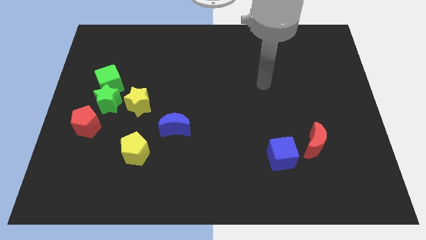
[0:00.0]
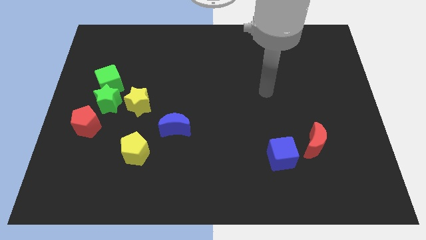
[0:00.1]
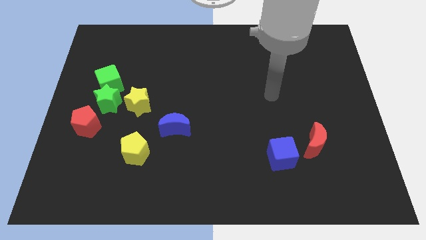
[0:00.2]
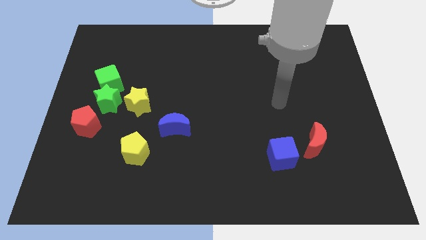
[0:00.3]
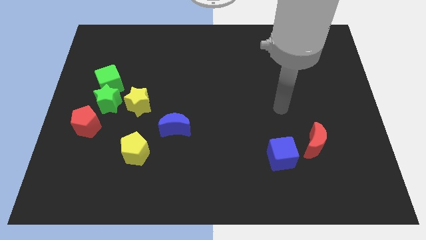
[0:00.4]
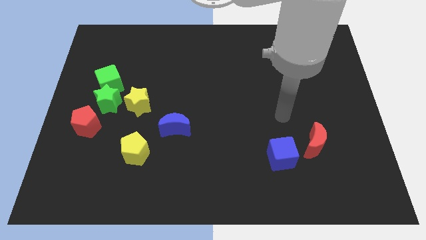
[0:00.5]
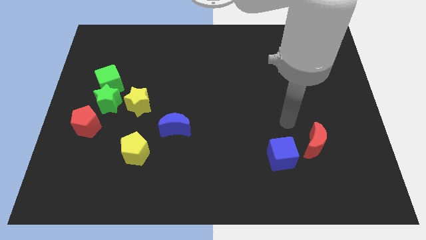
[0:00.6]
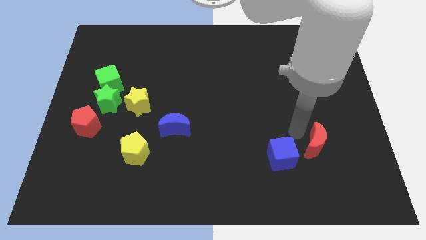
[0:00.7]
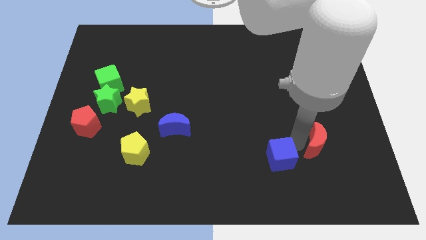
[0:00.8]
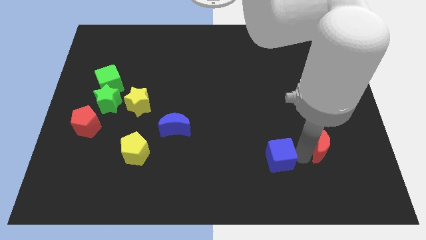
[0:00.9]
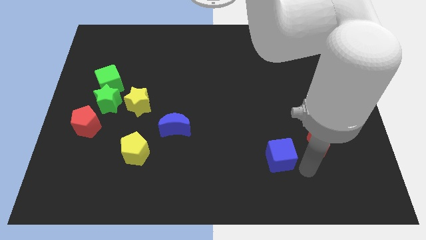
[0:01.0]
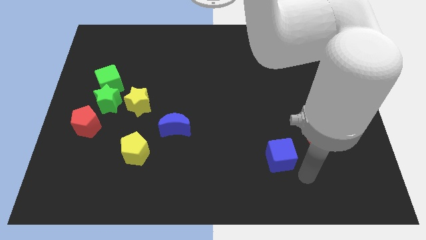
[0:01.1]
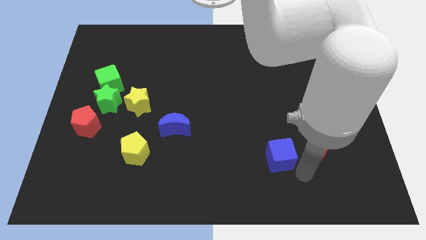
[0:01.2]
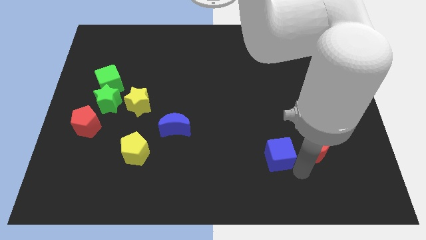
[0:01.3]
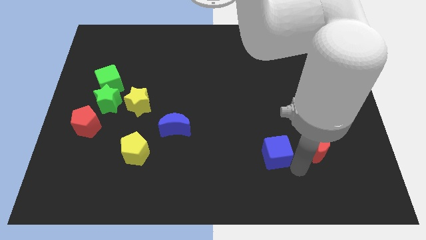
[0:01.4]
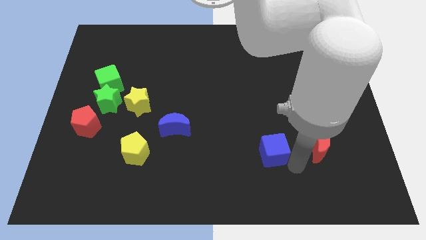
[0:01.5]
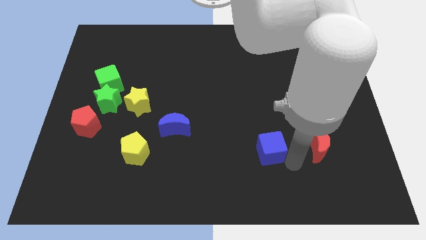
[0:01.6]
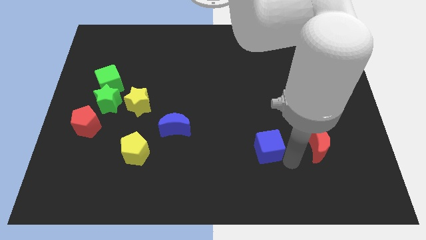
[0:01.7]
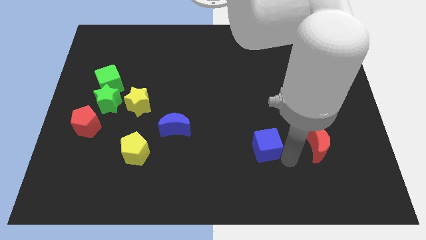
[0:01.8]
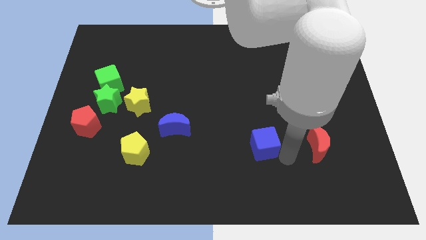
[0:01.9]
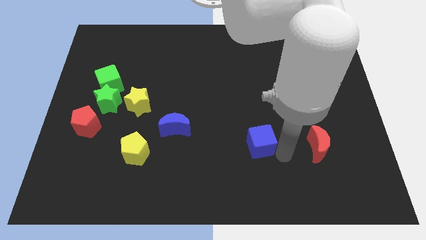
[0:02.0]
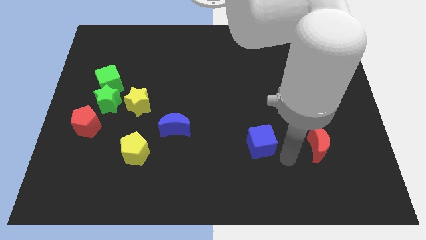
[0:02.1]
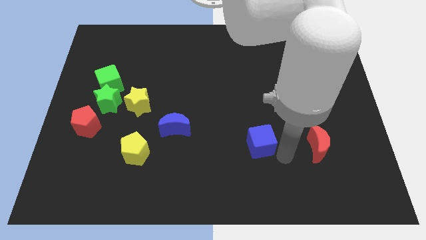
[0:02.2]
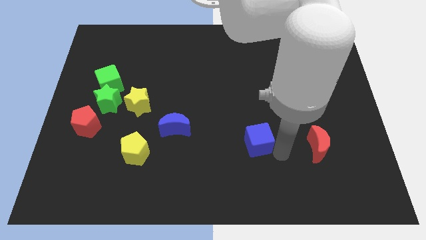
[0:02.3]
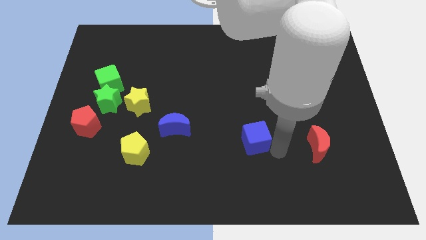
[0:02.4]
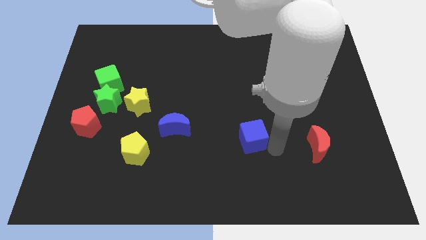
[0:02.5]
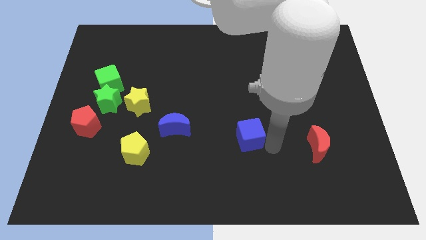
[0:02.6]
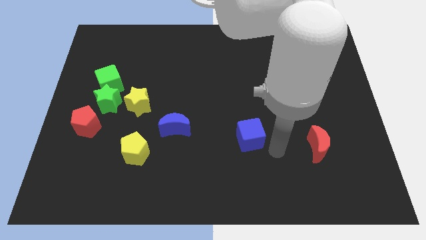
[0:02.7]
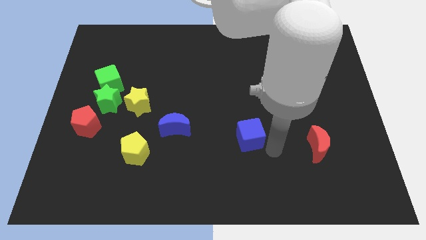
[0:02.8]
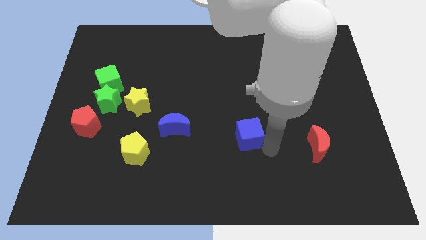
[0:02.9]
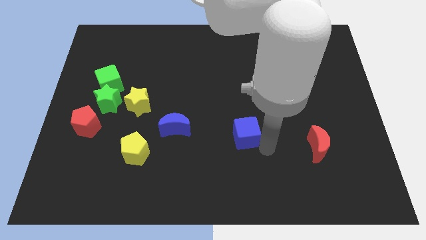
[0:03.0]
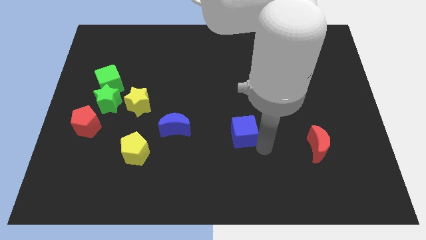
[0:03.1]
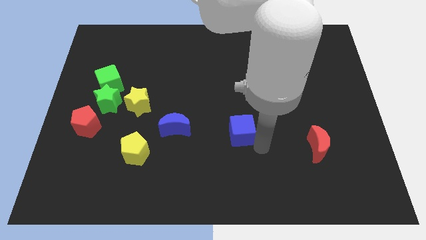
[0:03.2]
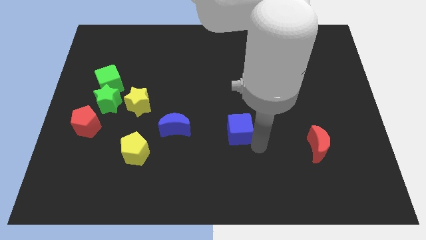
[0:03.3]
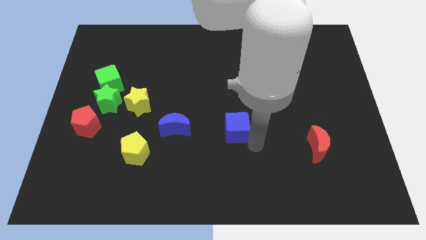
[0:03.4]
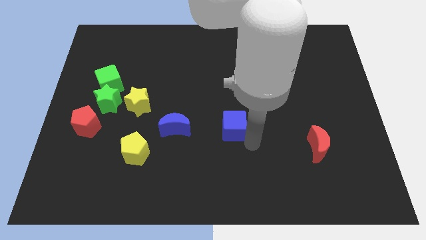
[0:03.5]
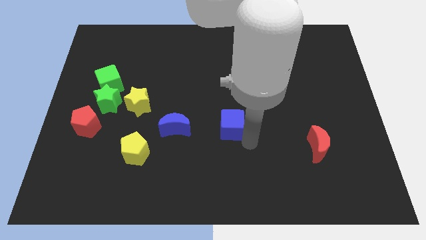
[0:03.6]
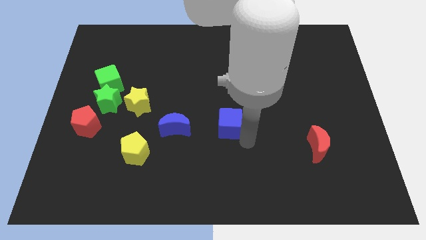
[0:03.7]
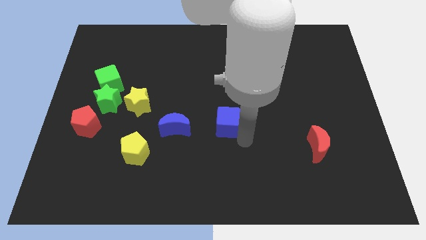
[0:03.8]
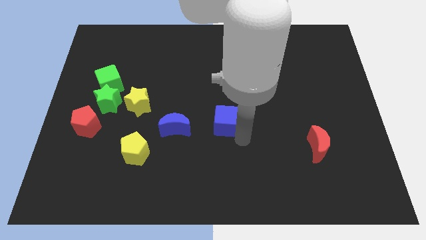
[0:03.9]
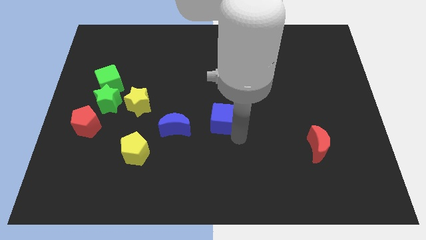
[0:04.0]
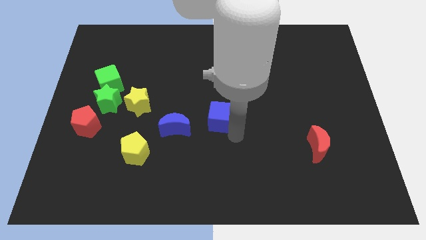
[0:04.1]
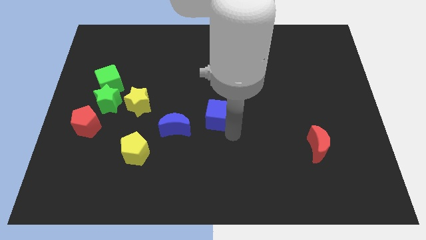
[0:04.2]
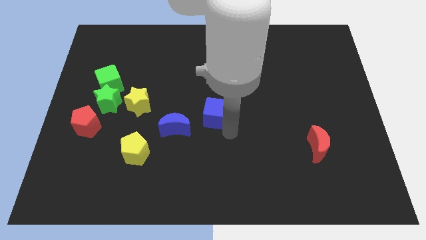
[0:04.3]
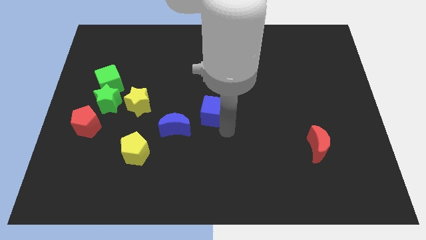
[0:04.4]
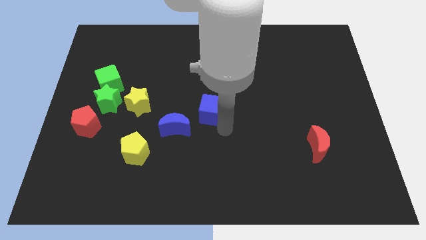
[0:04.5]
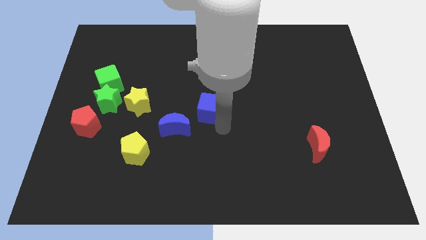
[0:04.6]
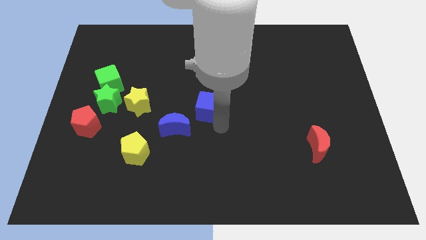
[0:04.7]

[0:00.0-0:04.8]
move the blue cube diagonally upwards and to the left

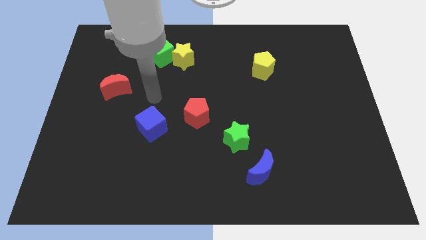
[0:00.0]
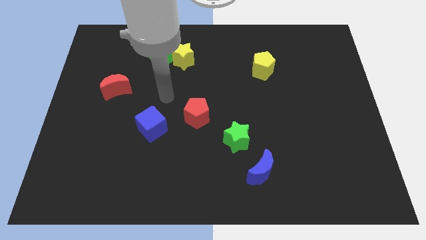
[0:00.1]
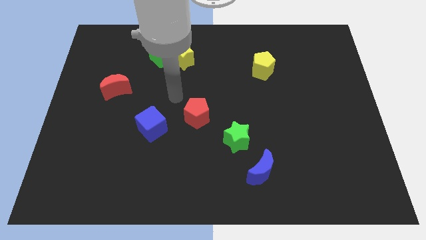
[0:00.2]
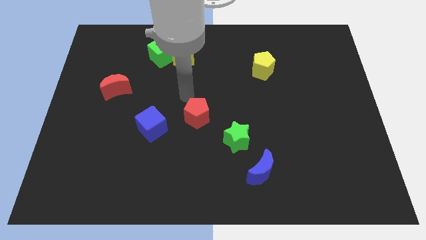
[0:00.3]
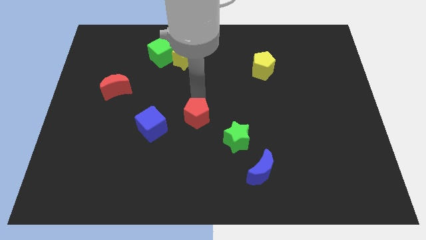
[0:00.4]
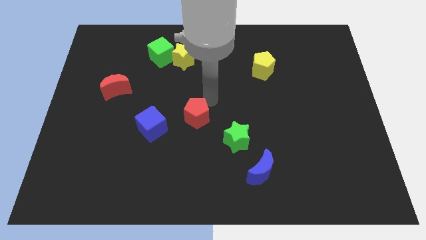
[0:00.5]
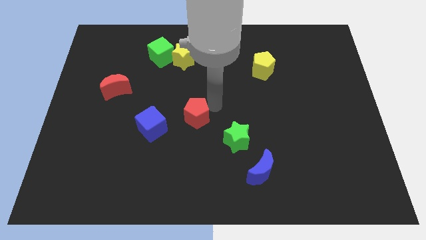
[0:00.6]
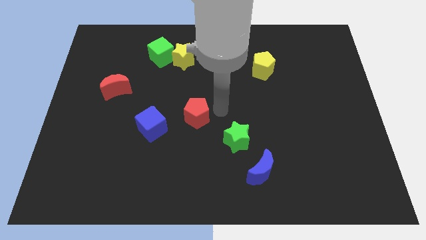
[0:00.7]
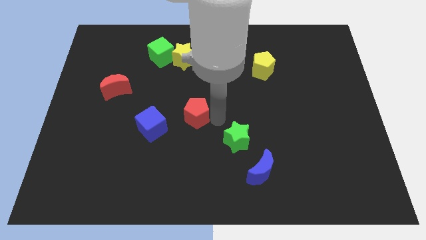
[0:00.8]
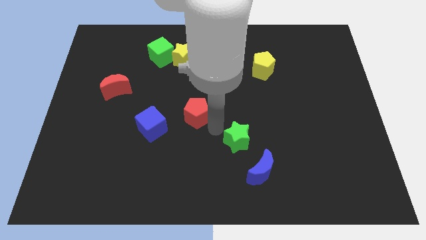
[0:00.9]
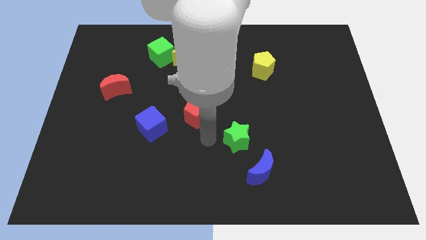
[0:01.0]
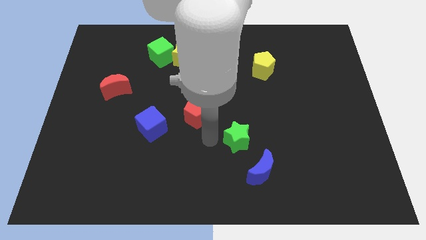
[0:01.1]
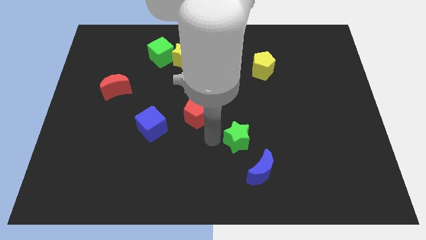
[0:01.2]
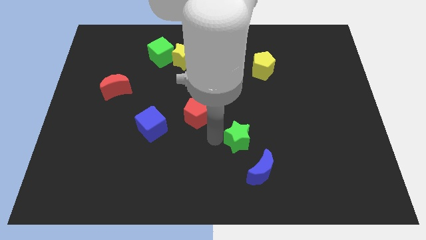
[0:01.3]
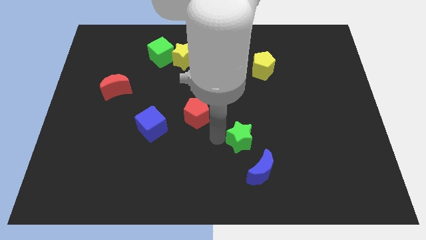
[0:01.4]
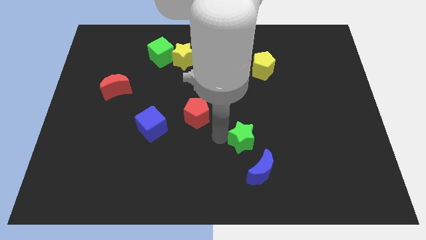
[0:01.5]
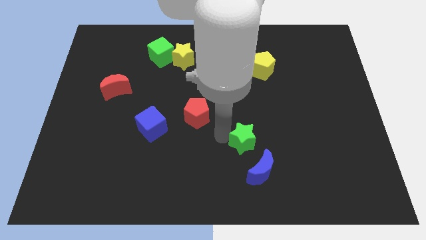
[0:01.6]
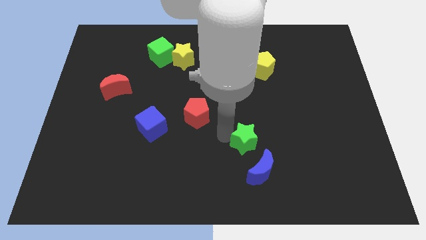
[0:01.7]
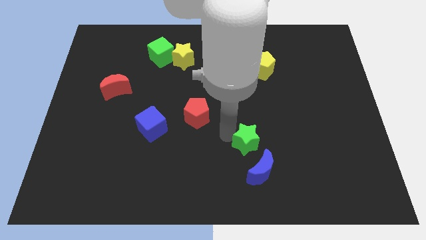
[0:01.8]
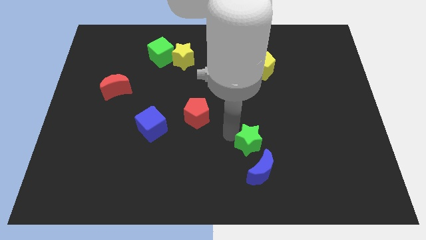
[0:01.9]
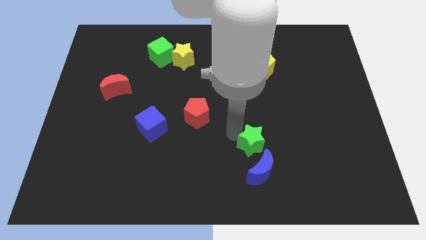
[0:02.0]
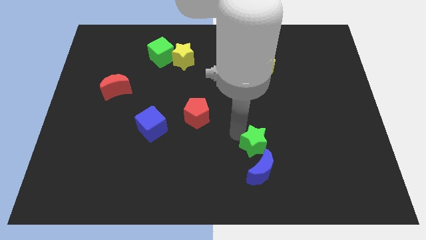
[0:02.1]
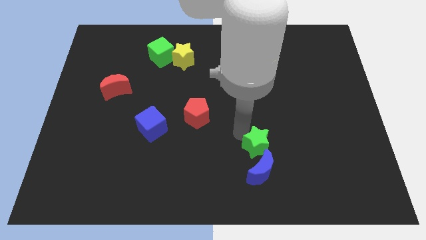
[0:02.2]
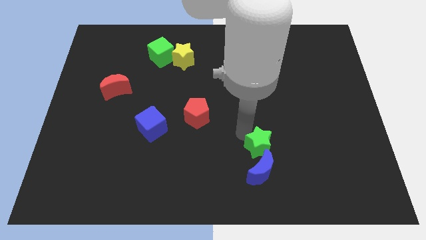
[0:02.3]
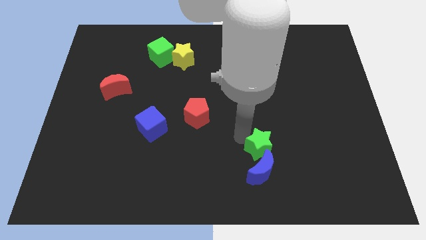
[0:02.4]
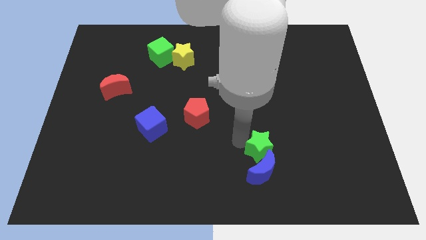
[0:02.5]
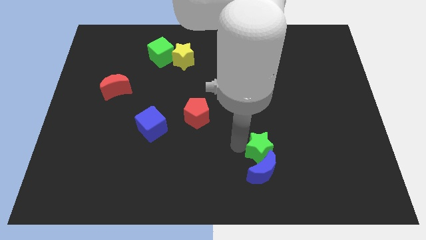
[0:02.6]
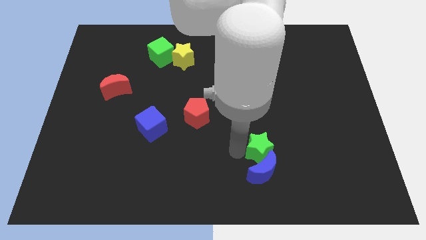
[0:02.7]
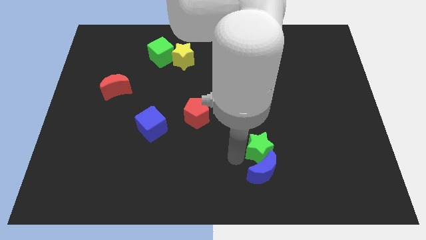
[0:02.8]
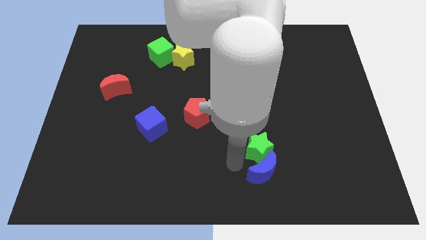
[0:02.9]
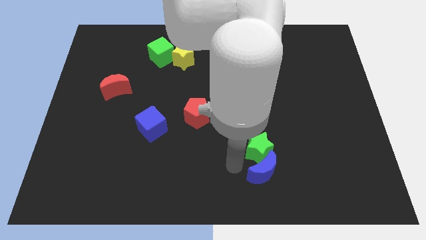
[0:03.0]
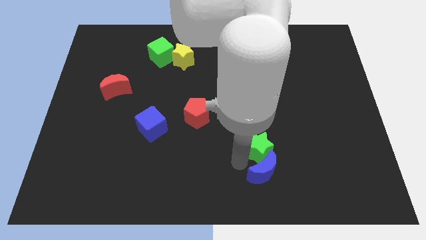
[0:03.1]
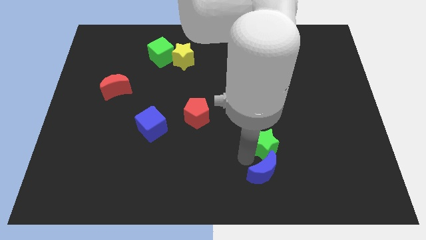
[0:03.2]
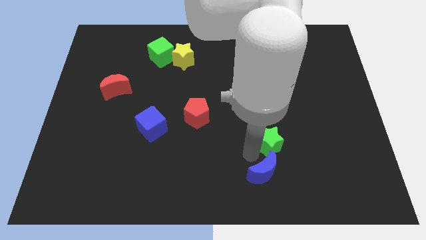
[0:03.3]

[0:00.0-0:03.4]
slightly move the green star to the right
